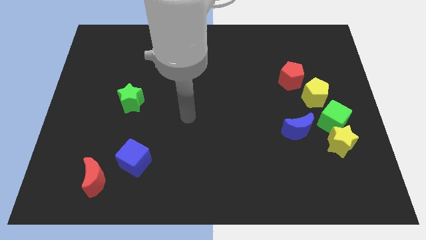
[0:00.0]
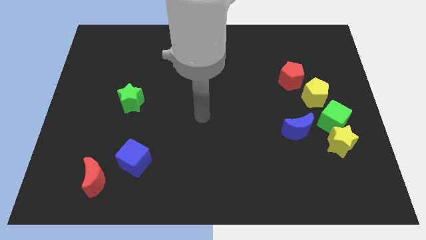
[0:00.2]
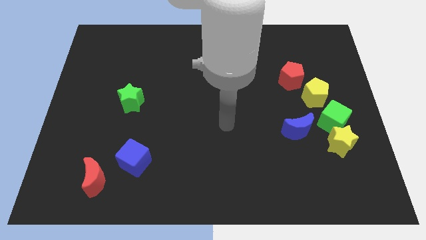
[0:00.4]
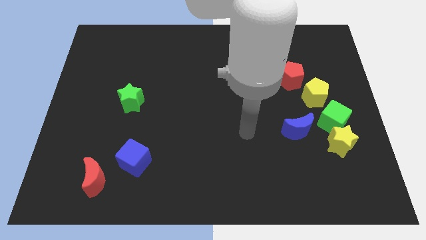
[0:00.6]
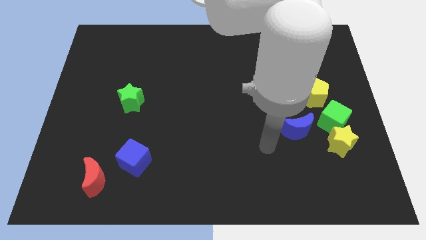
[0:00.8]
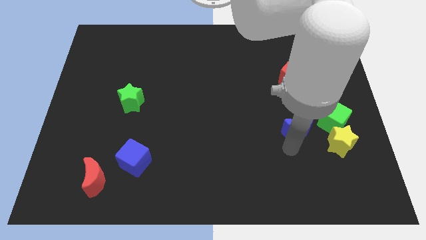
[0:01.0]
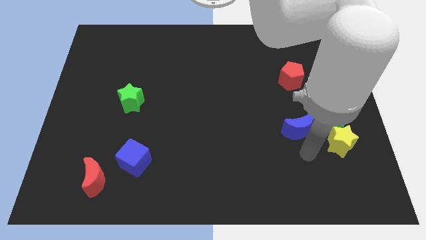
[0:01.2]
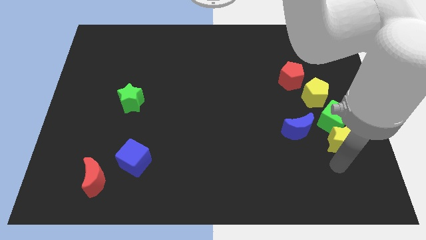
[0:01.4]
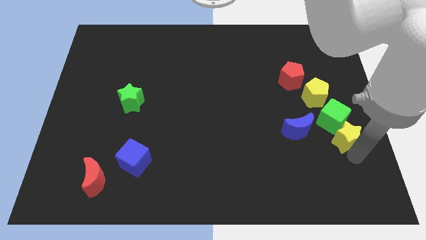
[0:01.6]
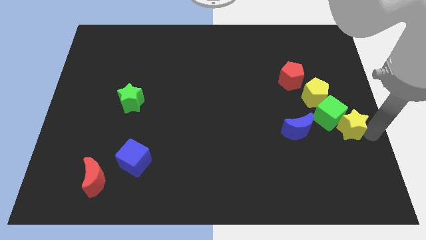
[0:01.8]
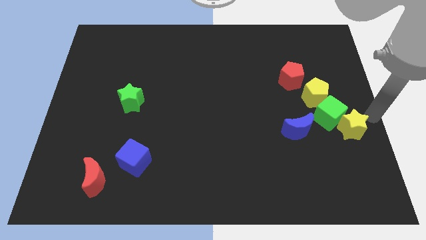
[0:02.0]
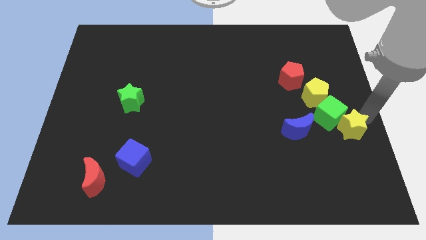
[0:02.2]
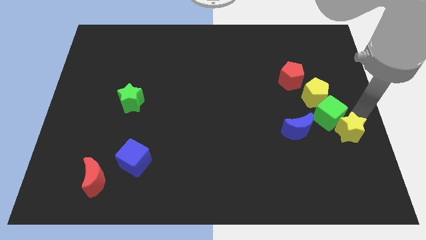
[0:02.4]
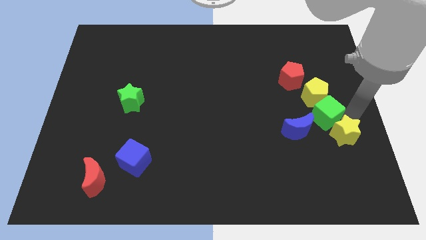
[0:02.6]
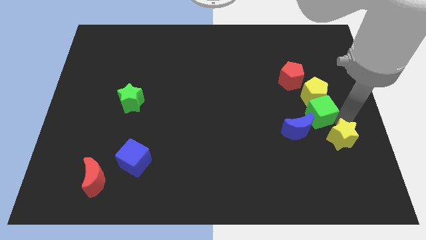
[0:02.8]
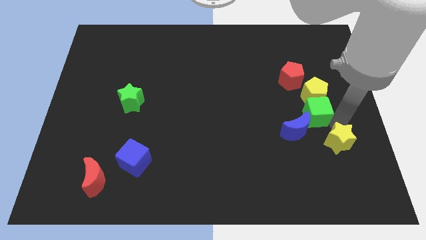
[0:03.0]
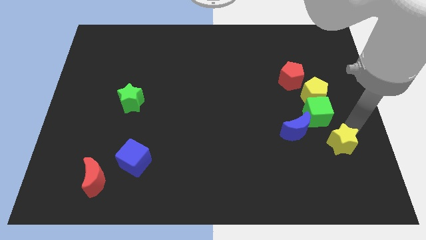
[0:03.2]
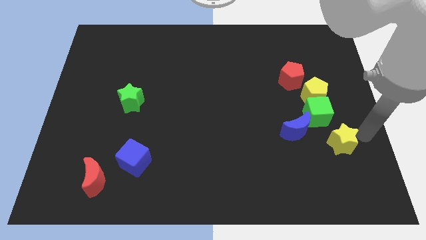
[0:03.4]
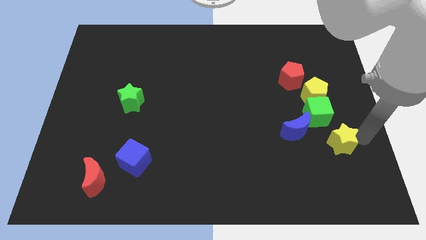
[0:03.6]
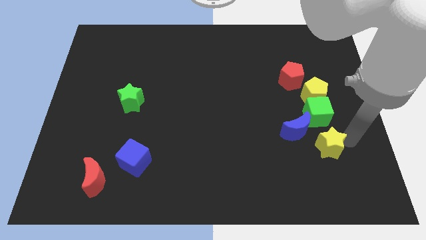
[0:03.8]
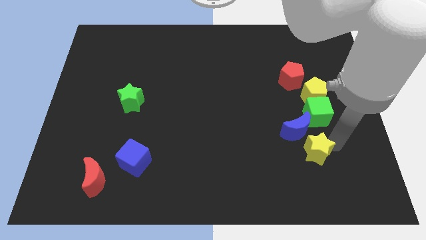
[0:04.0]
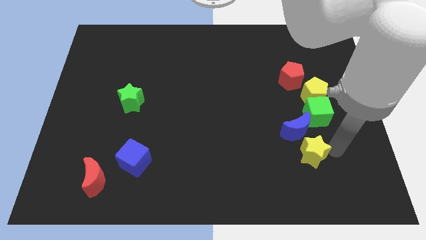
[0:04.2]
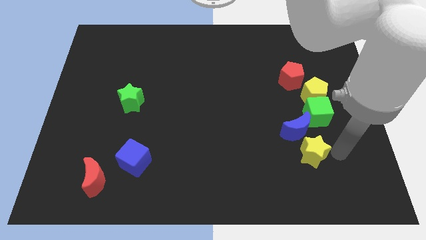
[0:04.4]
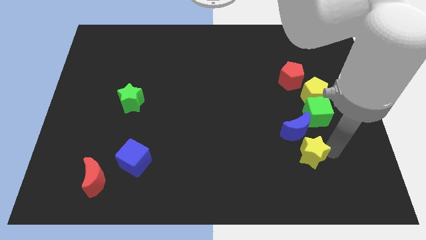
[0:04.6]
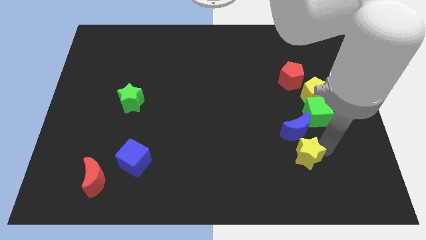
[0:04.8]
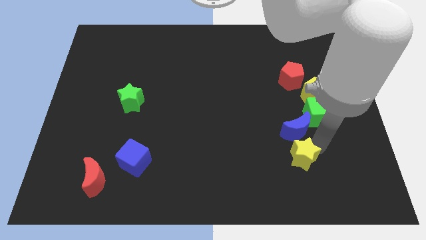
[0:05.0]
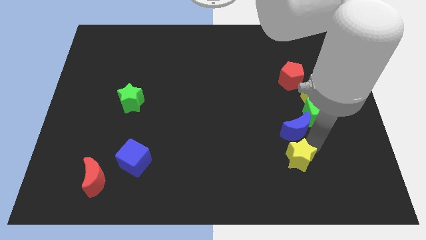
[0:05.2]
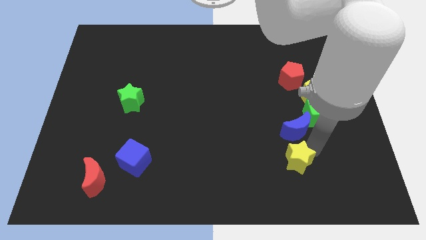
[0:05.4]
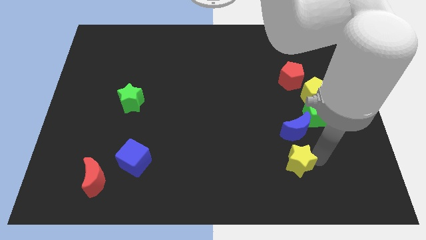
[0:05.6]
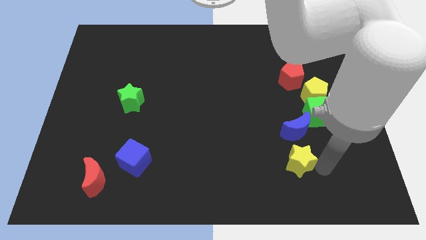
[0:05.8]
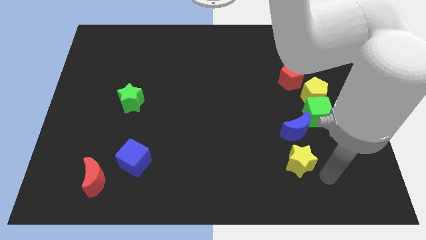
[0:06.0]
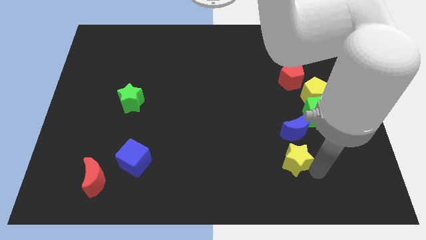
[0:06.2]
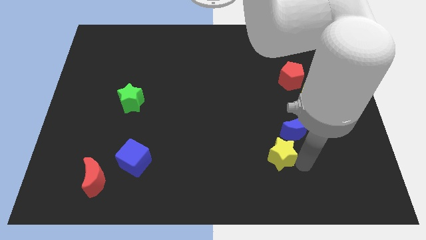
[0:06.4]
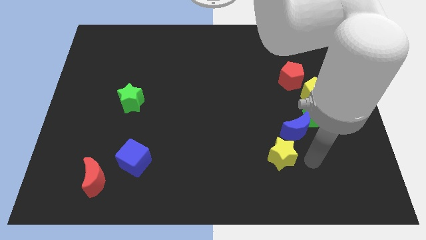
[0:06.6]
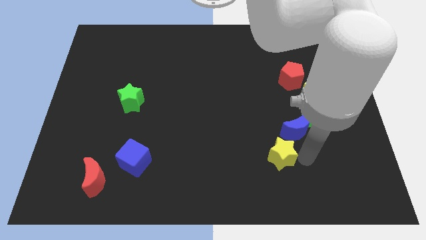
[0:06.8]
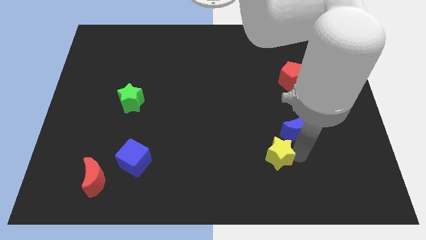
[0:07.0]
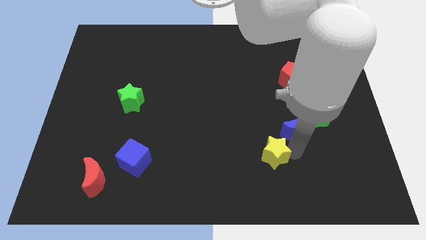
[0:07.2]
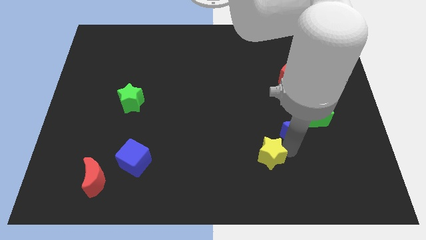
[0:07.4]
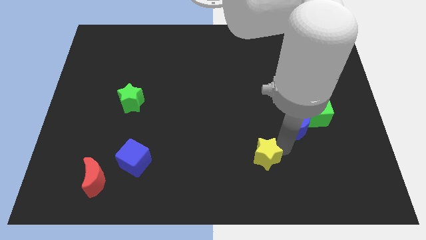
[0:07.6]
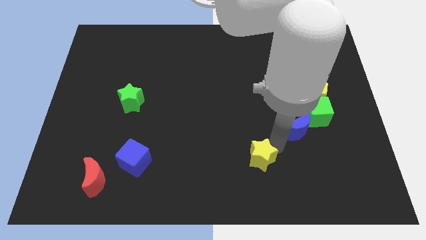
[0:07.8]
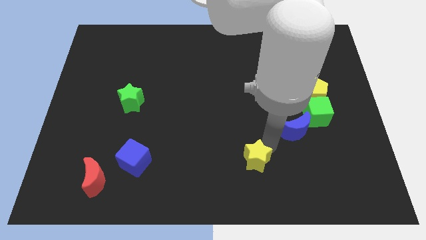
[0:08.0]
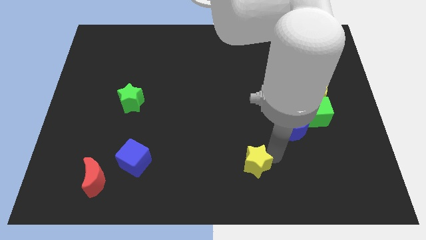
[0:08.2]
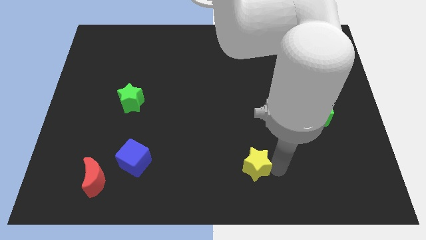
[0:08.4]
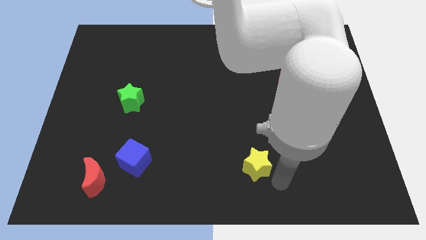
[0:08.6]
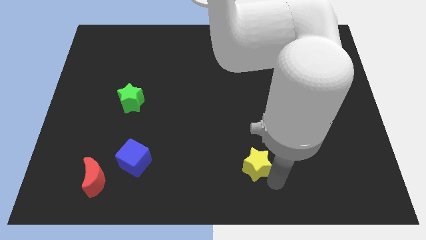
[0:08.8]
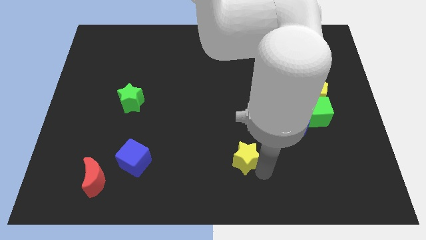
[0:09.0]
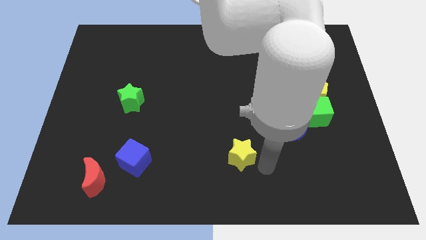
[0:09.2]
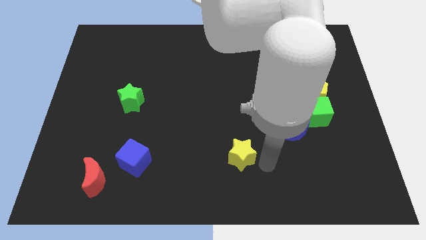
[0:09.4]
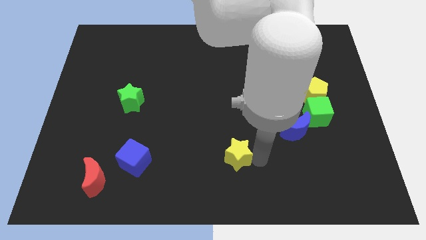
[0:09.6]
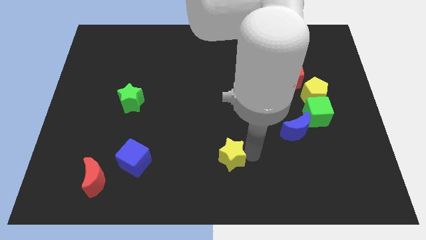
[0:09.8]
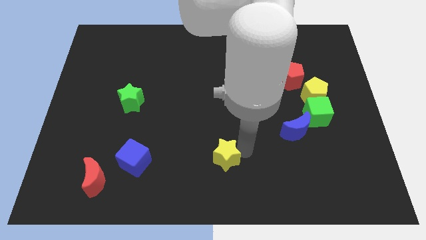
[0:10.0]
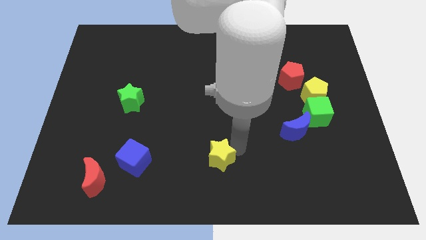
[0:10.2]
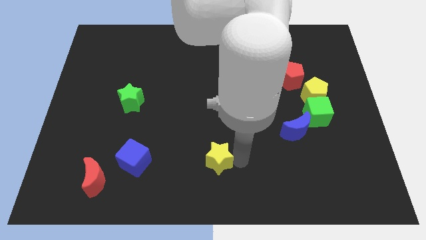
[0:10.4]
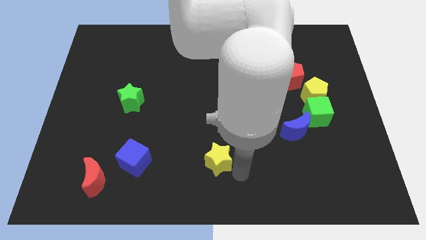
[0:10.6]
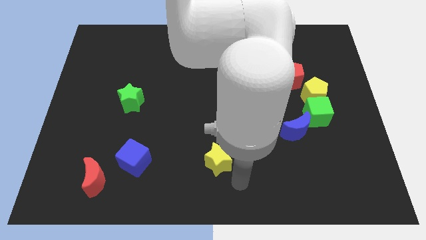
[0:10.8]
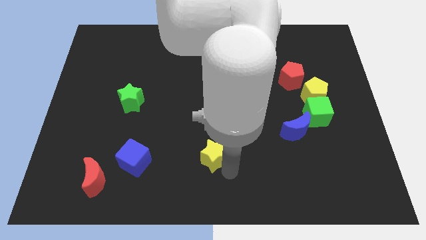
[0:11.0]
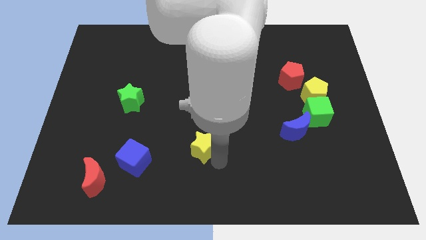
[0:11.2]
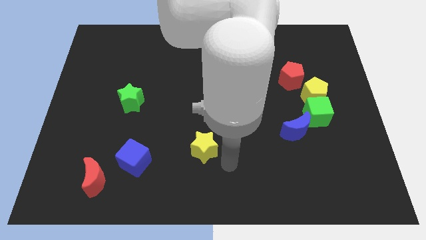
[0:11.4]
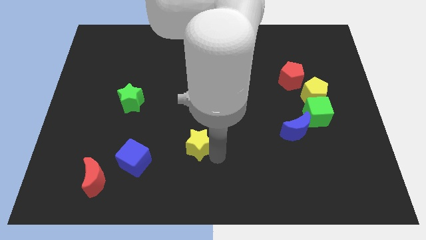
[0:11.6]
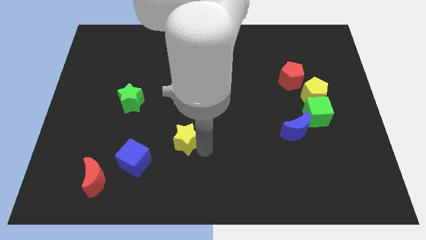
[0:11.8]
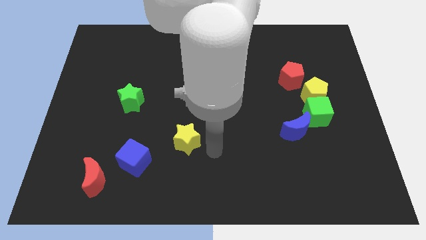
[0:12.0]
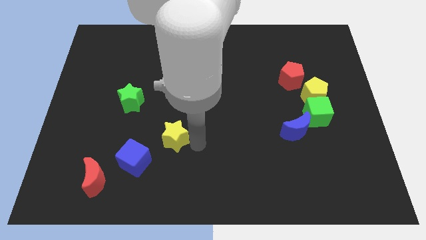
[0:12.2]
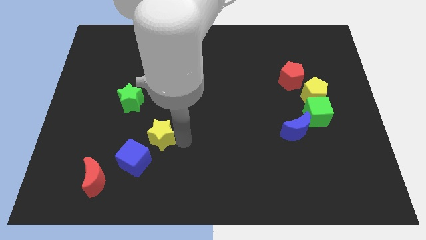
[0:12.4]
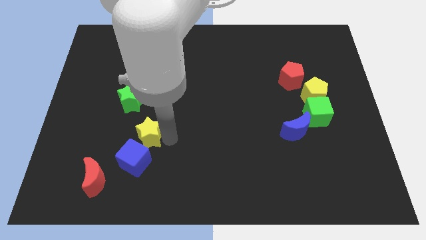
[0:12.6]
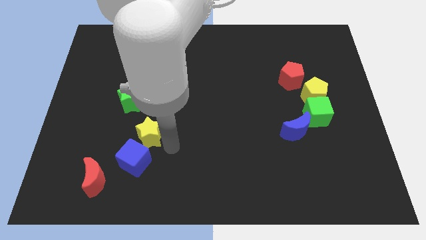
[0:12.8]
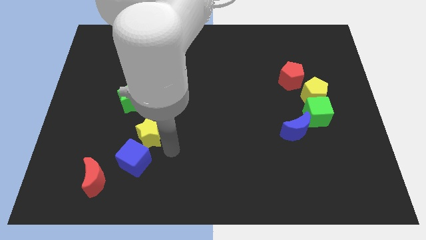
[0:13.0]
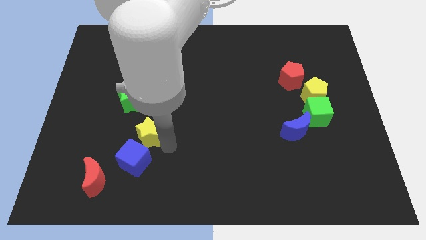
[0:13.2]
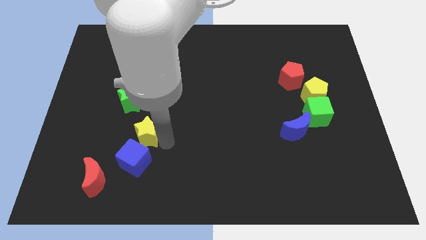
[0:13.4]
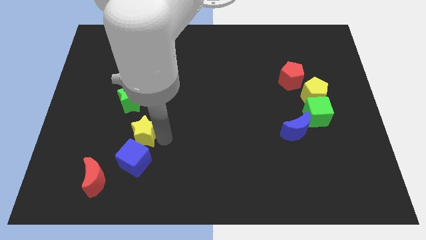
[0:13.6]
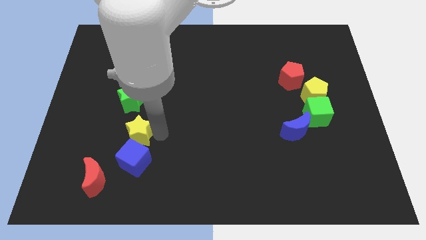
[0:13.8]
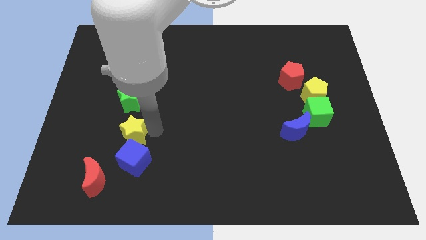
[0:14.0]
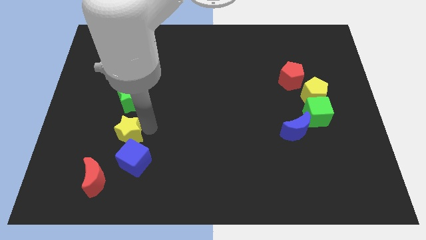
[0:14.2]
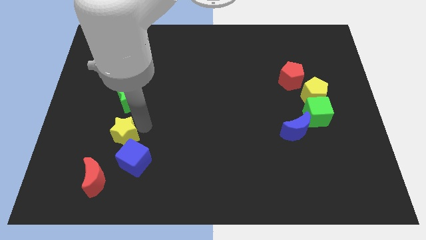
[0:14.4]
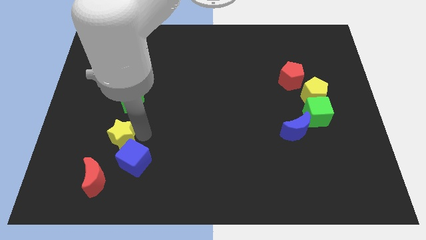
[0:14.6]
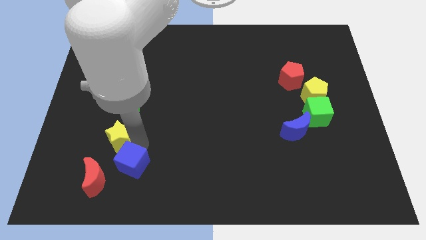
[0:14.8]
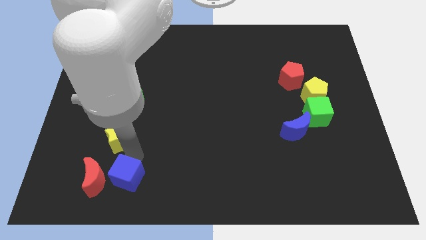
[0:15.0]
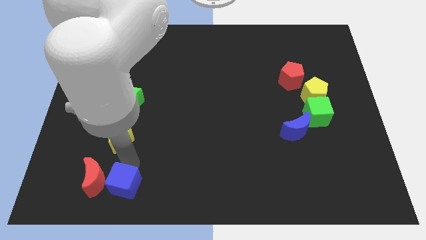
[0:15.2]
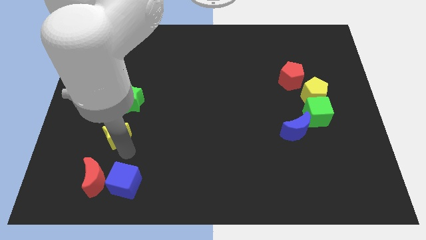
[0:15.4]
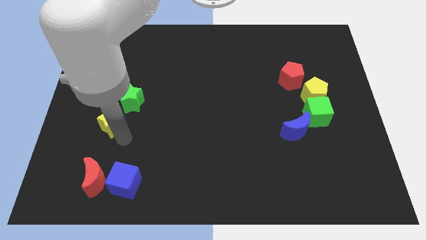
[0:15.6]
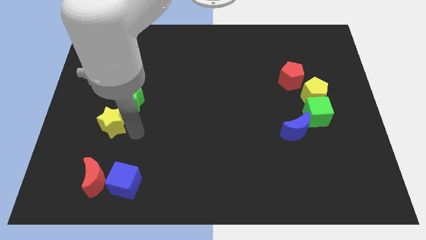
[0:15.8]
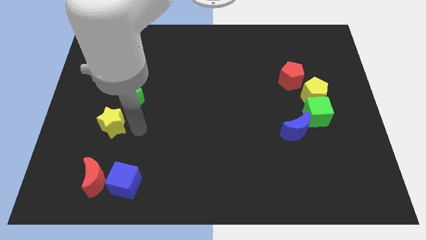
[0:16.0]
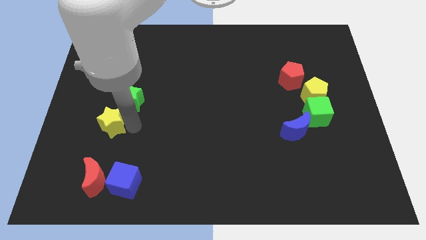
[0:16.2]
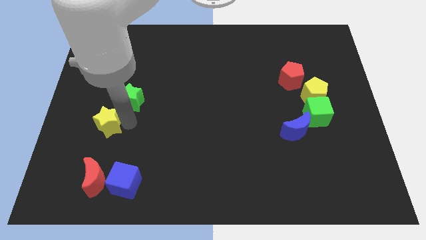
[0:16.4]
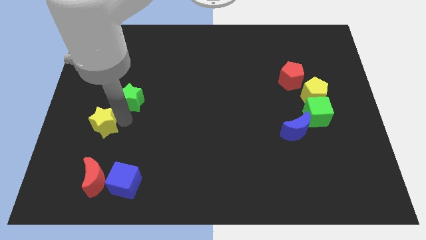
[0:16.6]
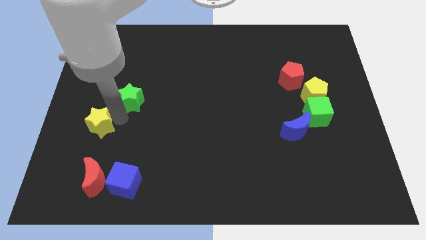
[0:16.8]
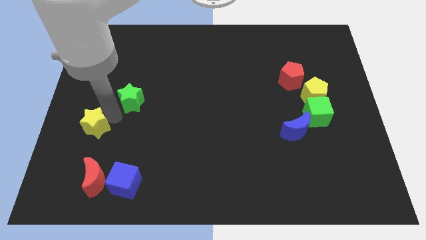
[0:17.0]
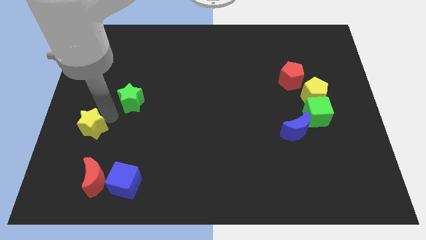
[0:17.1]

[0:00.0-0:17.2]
slide the yellow star to the left side of the board
